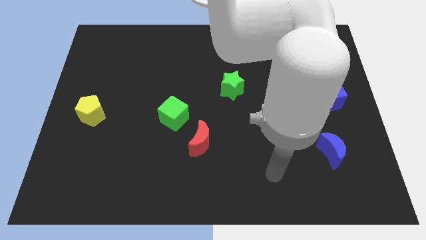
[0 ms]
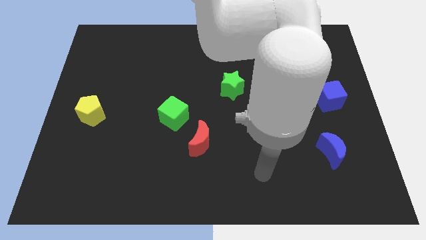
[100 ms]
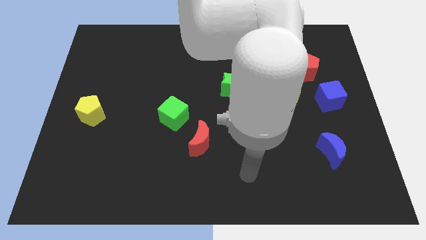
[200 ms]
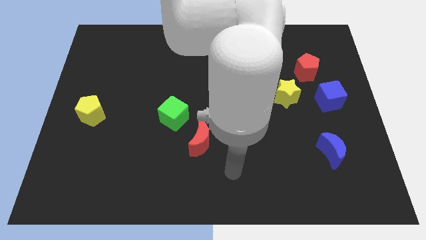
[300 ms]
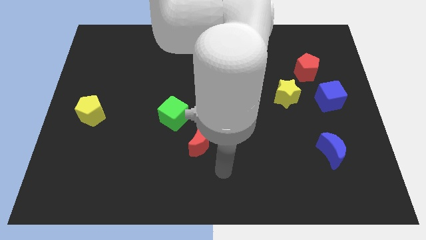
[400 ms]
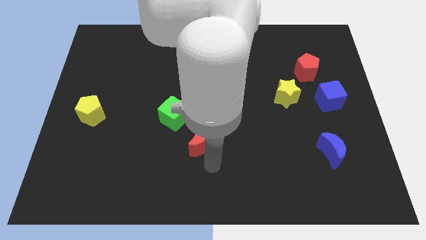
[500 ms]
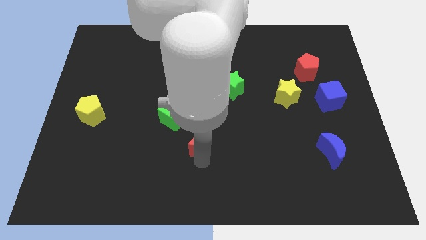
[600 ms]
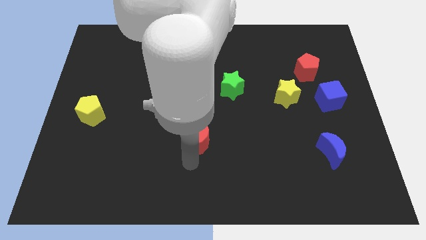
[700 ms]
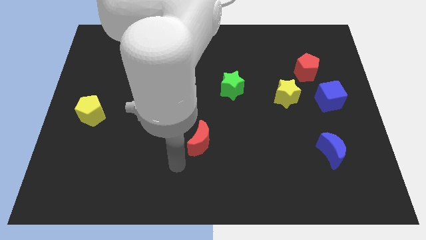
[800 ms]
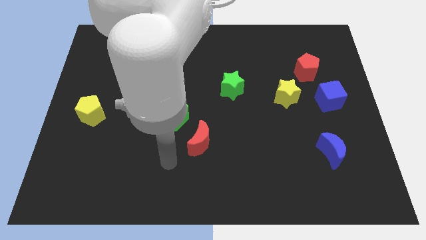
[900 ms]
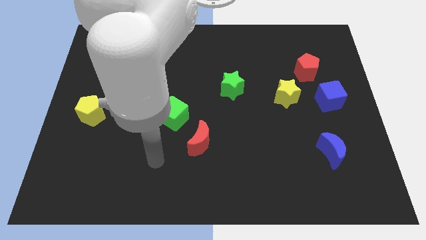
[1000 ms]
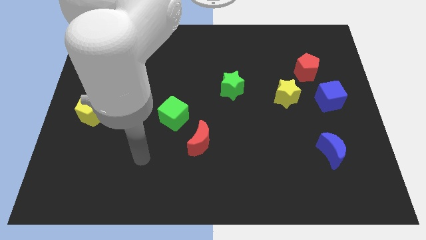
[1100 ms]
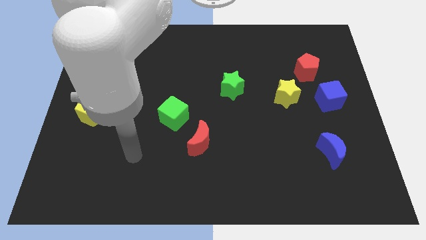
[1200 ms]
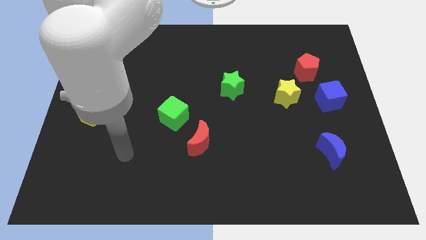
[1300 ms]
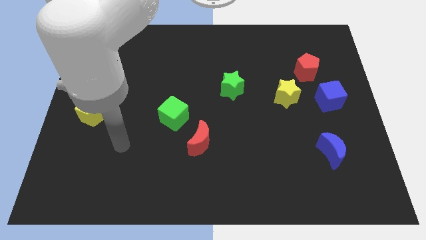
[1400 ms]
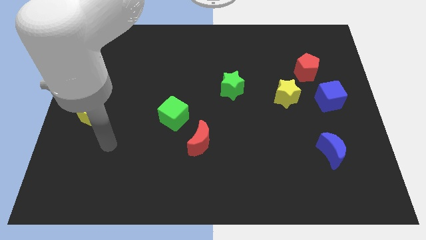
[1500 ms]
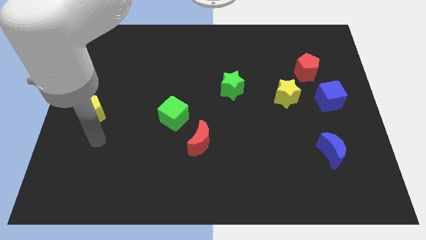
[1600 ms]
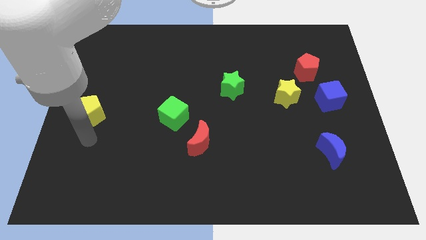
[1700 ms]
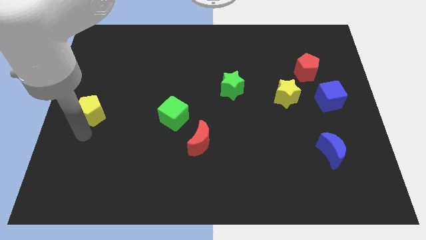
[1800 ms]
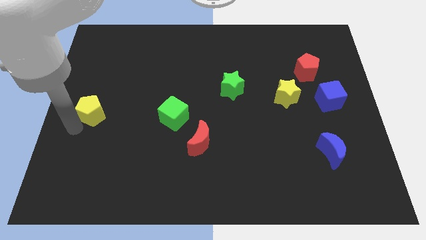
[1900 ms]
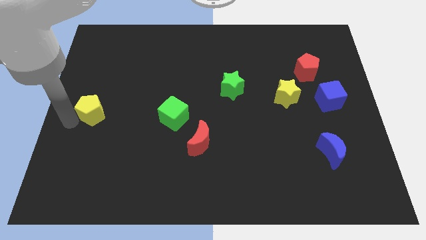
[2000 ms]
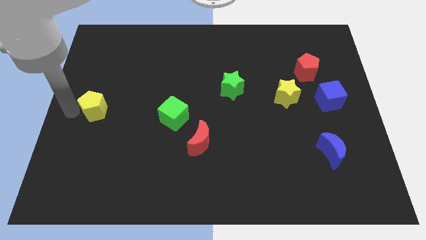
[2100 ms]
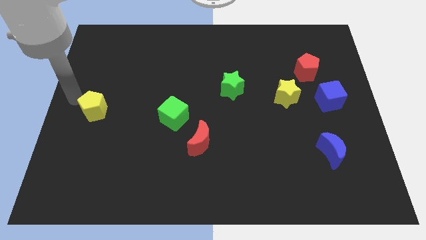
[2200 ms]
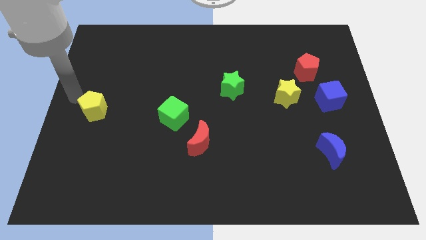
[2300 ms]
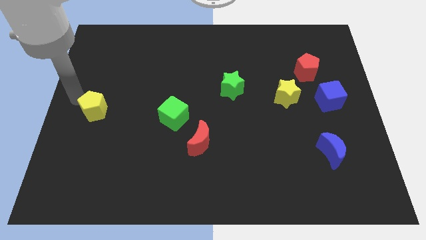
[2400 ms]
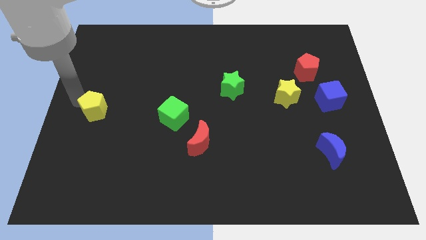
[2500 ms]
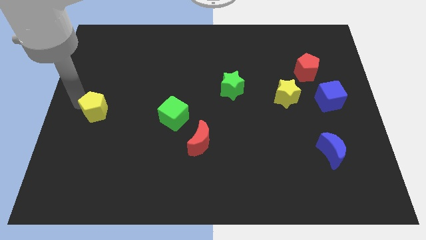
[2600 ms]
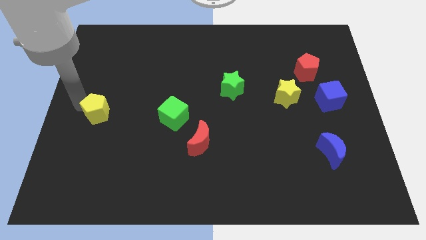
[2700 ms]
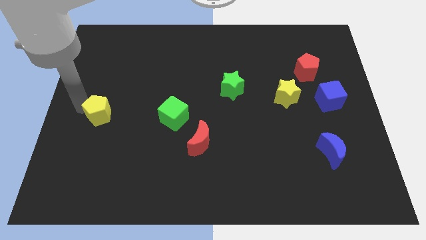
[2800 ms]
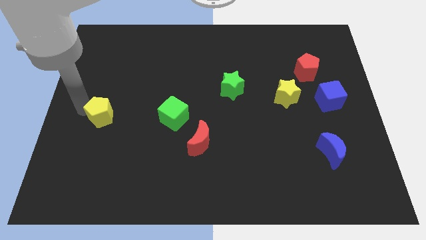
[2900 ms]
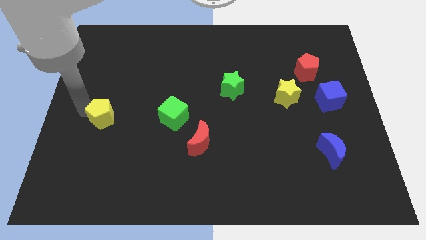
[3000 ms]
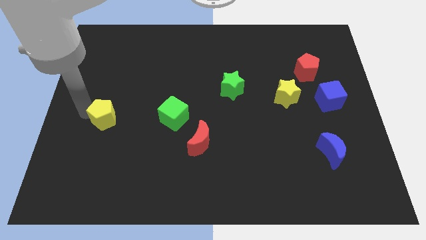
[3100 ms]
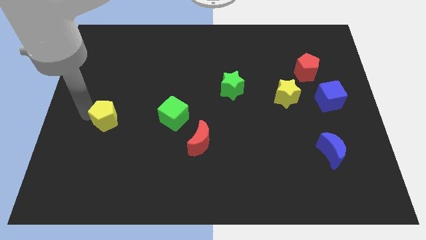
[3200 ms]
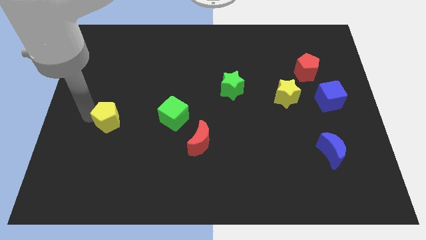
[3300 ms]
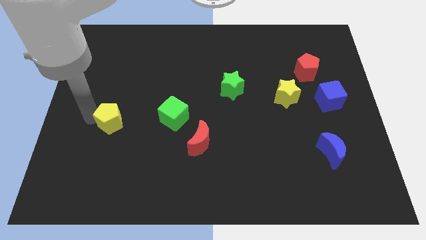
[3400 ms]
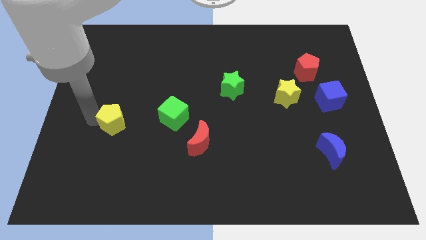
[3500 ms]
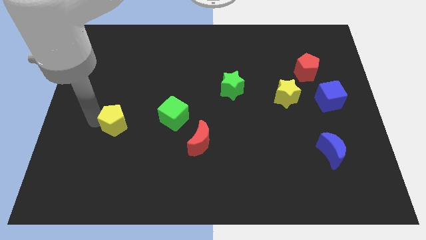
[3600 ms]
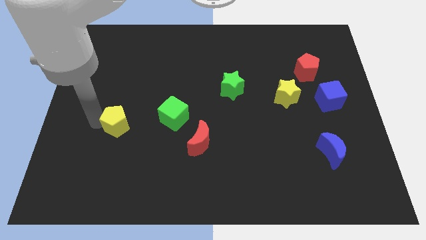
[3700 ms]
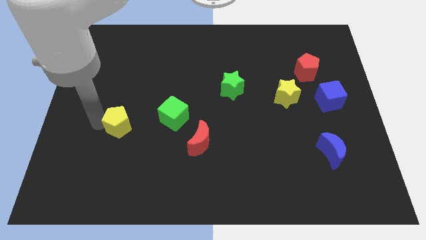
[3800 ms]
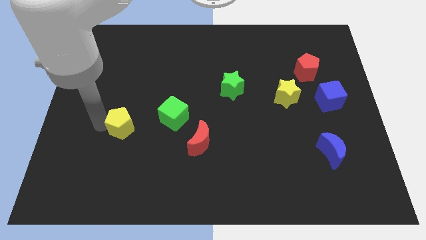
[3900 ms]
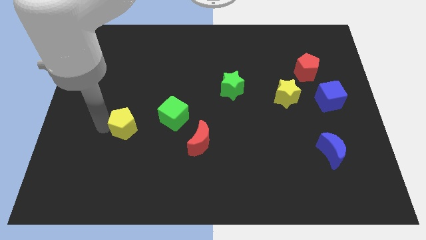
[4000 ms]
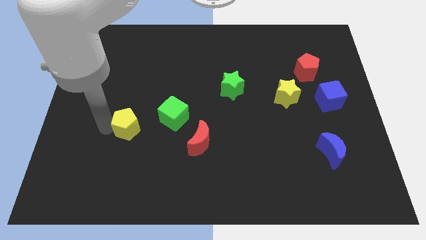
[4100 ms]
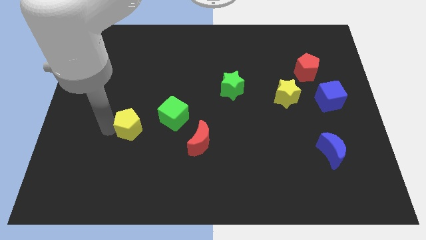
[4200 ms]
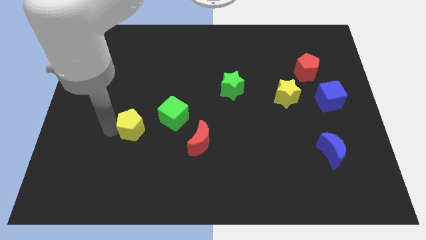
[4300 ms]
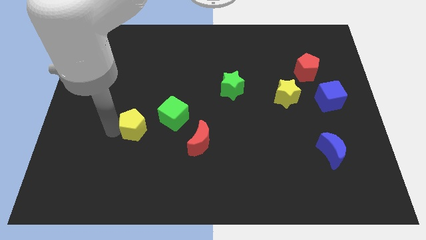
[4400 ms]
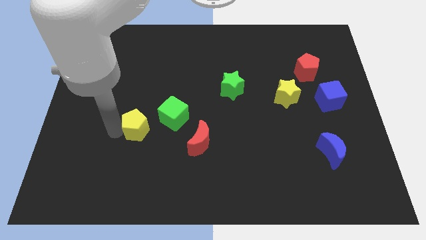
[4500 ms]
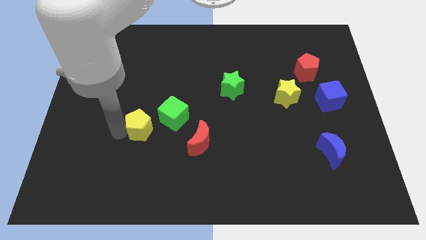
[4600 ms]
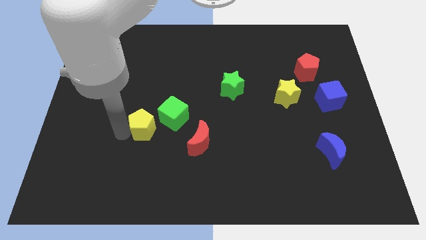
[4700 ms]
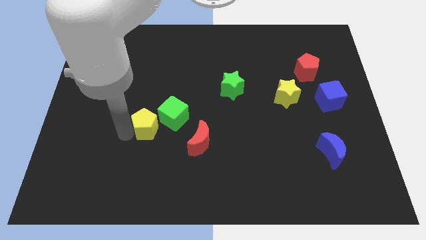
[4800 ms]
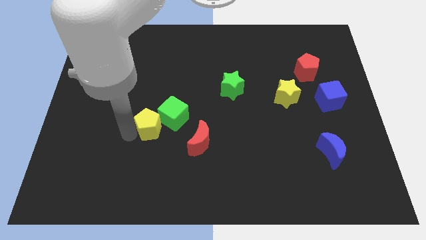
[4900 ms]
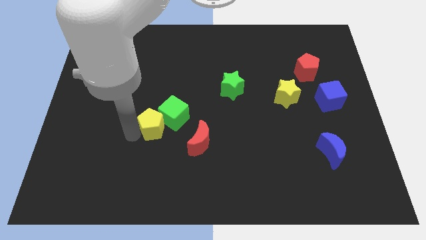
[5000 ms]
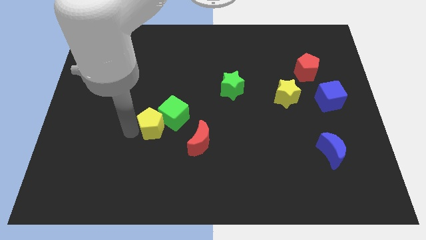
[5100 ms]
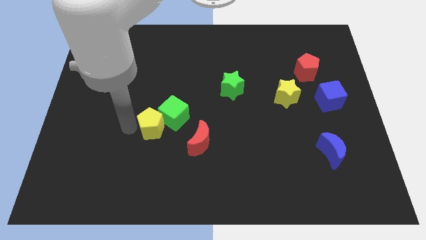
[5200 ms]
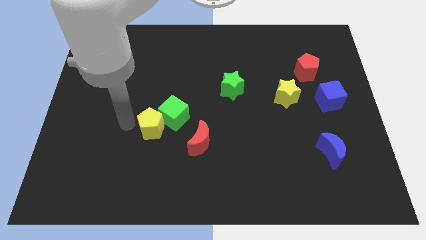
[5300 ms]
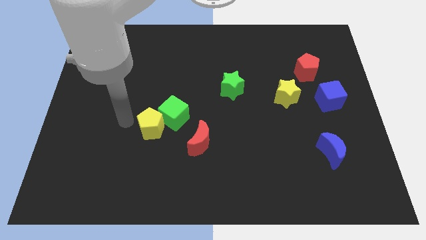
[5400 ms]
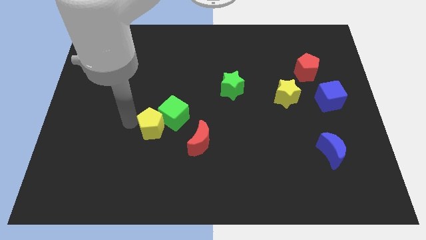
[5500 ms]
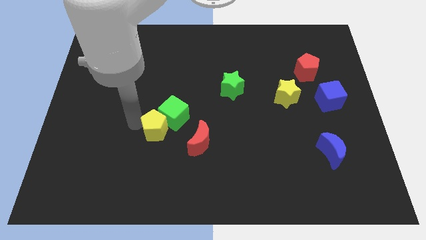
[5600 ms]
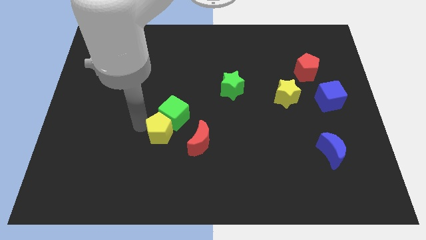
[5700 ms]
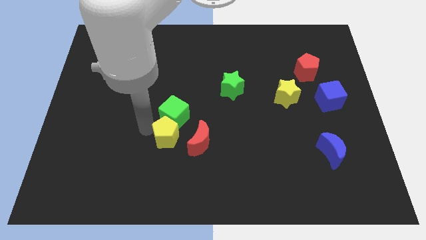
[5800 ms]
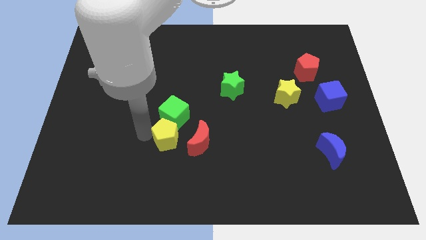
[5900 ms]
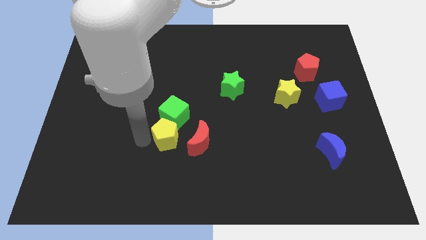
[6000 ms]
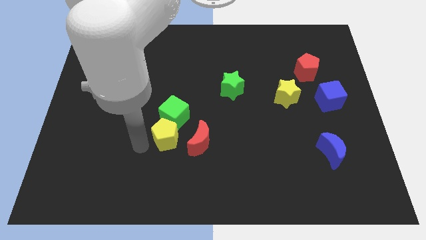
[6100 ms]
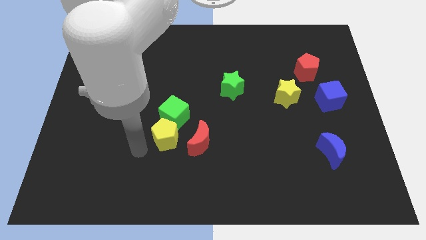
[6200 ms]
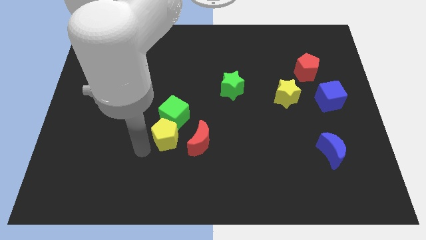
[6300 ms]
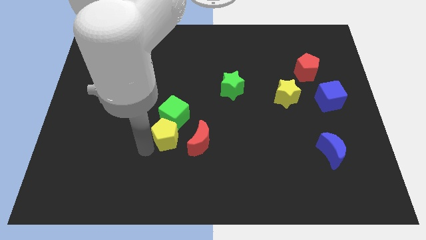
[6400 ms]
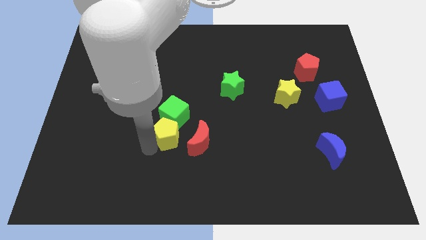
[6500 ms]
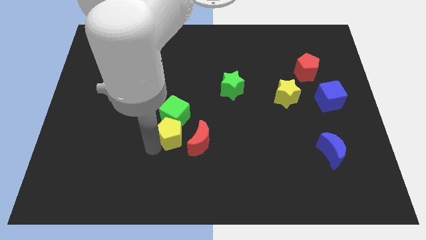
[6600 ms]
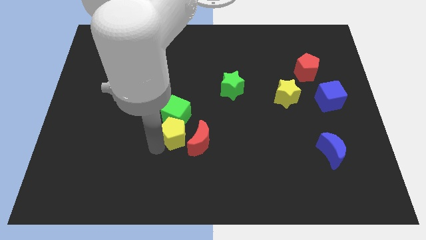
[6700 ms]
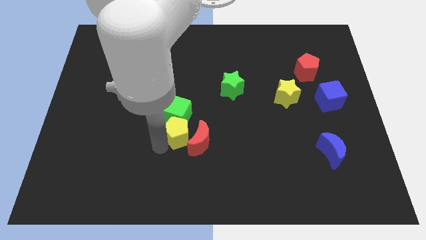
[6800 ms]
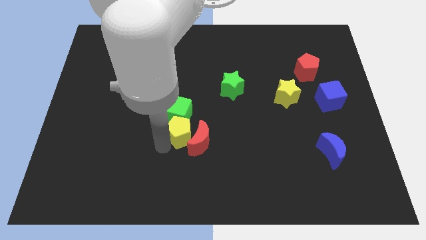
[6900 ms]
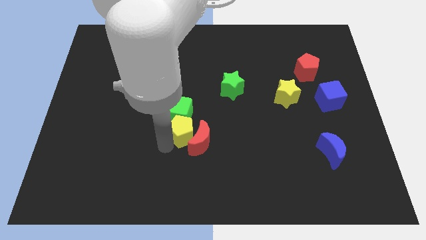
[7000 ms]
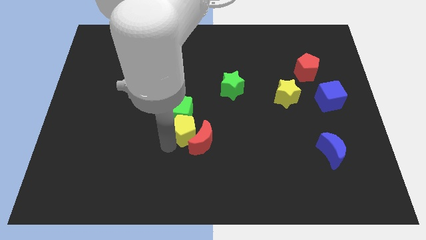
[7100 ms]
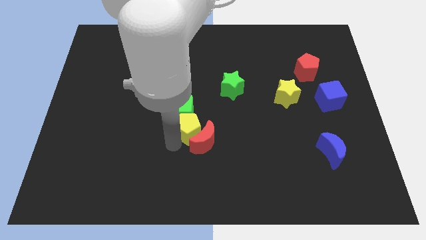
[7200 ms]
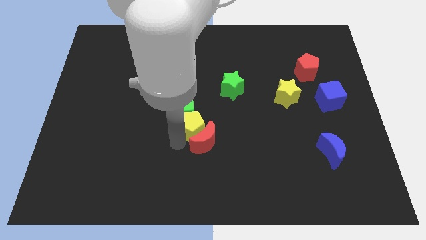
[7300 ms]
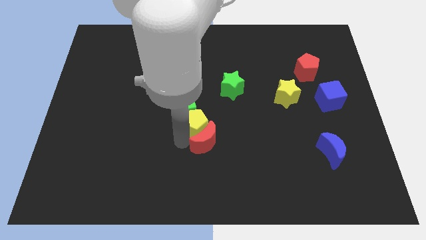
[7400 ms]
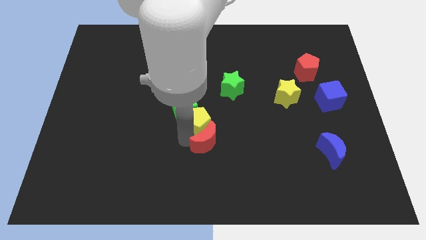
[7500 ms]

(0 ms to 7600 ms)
move the yellow pentagon just right of the green cube
